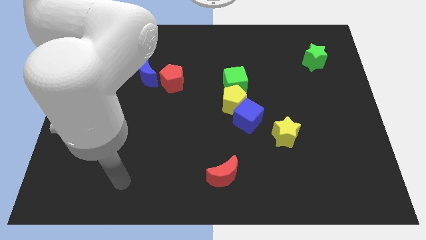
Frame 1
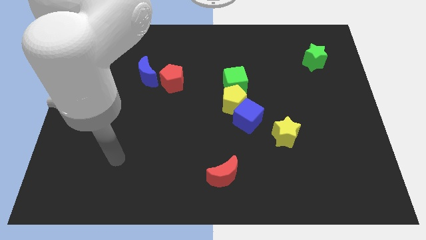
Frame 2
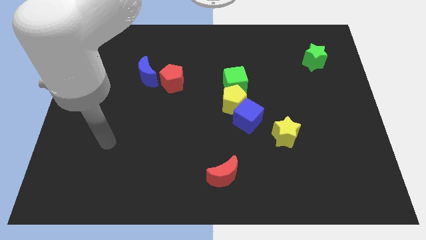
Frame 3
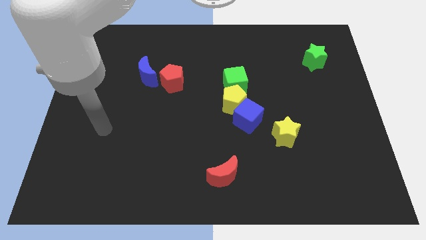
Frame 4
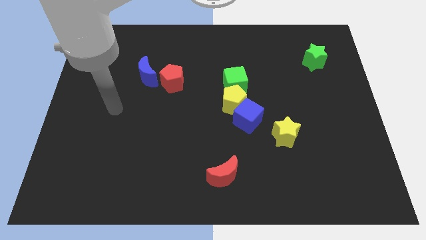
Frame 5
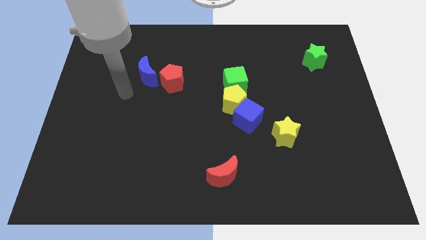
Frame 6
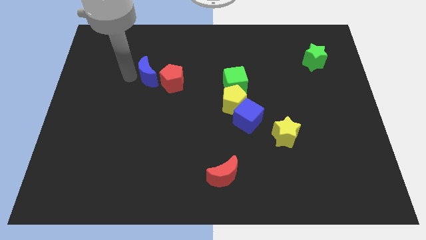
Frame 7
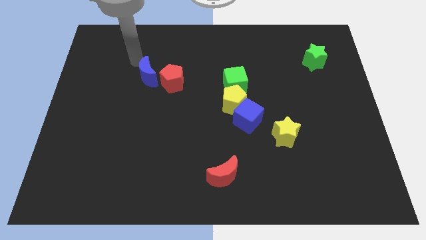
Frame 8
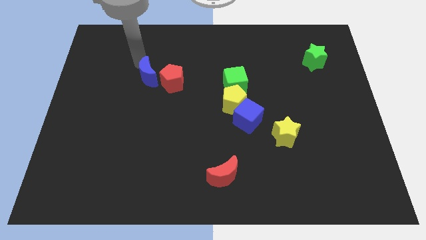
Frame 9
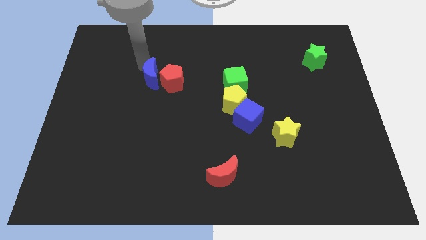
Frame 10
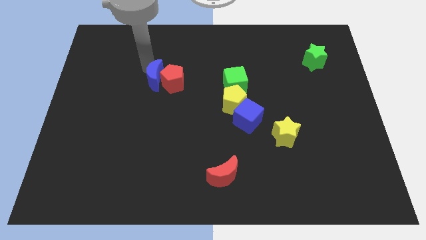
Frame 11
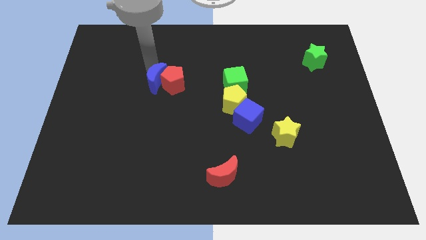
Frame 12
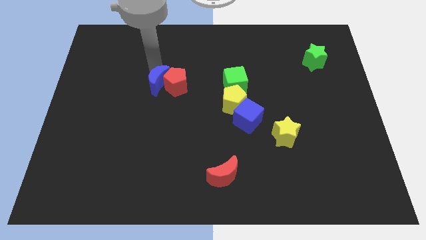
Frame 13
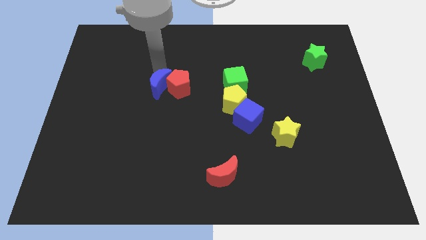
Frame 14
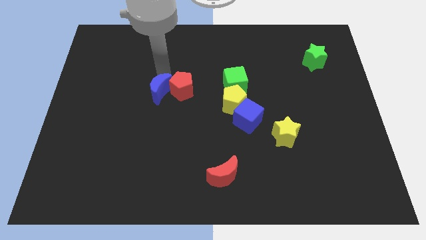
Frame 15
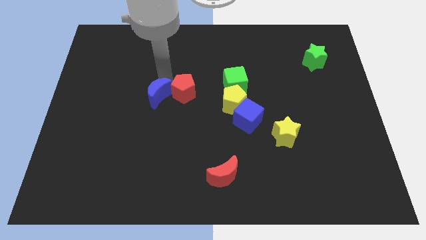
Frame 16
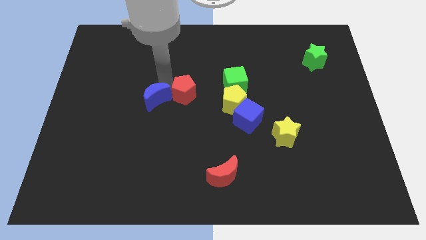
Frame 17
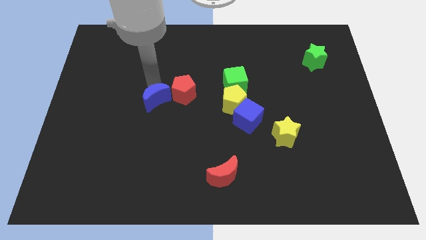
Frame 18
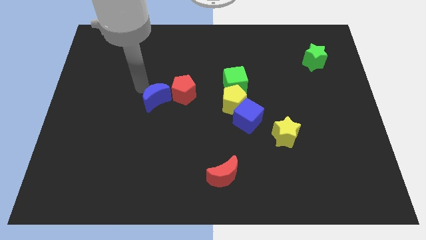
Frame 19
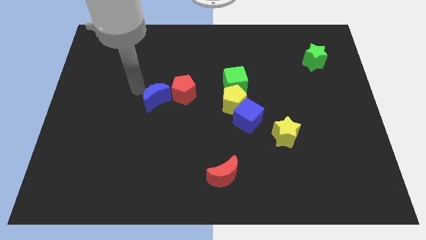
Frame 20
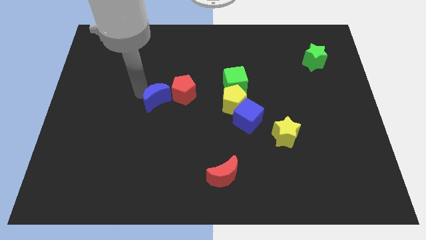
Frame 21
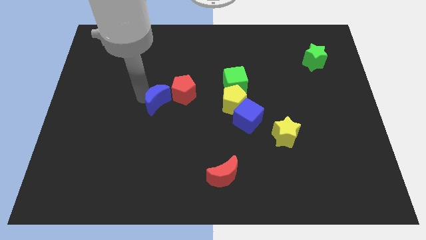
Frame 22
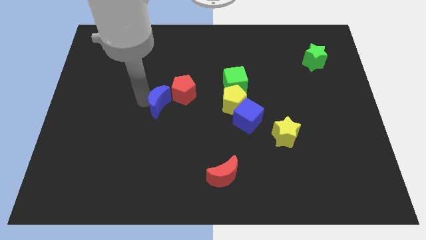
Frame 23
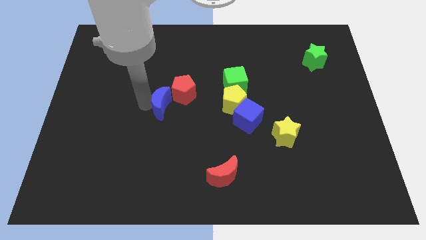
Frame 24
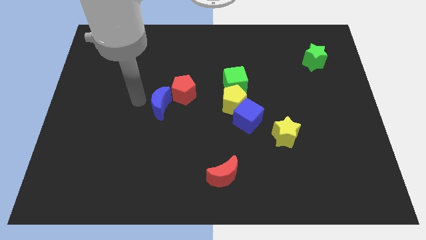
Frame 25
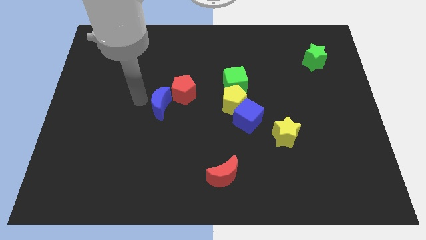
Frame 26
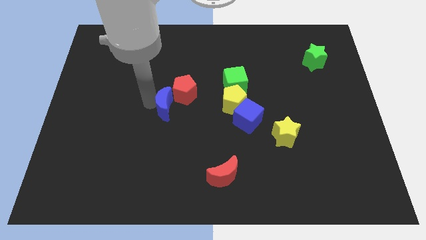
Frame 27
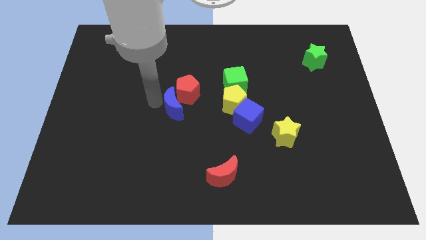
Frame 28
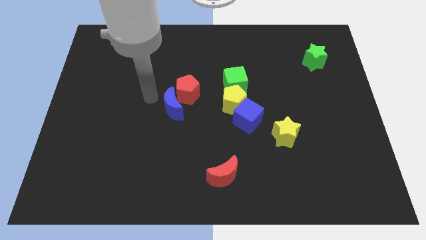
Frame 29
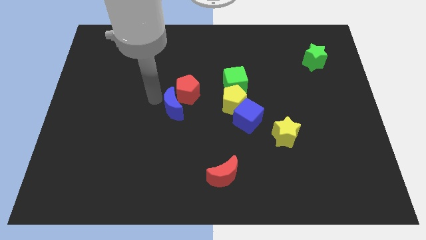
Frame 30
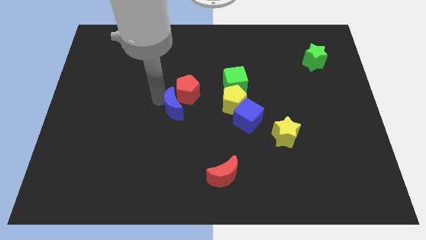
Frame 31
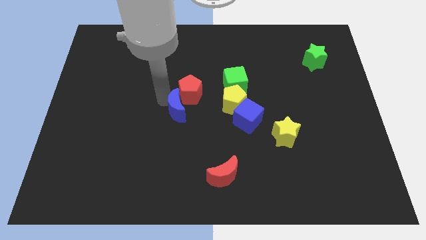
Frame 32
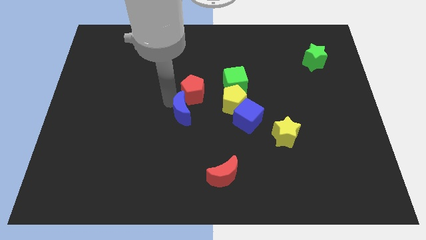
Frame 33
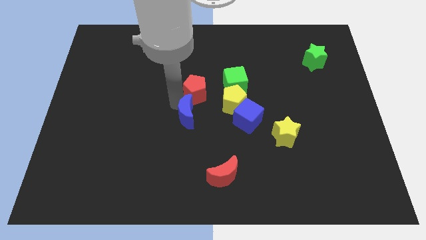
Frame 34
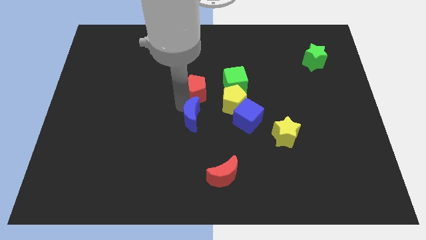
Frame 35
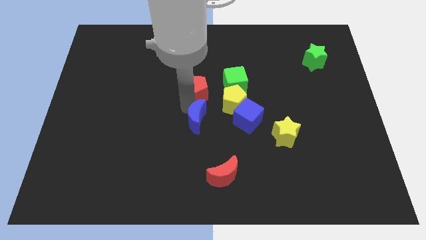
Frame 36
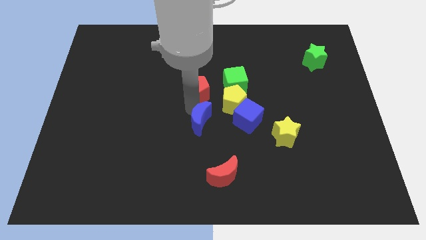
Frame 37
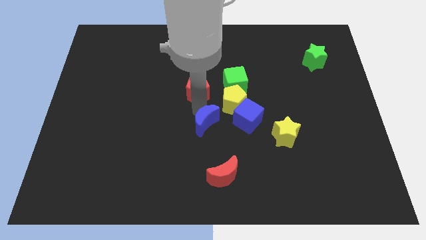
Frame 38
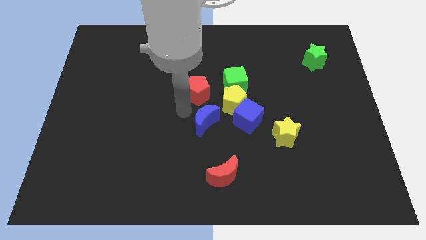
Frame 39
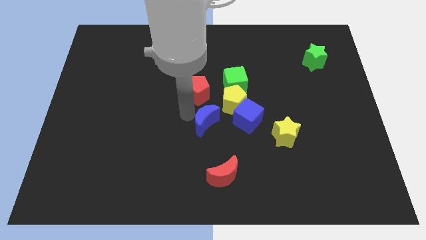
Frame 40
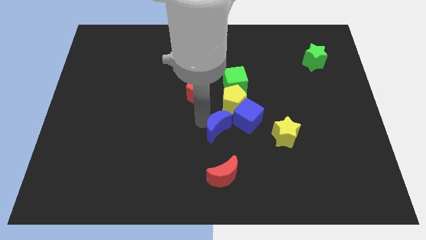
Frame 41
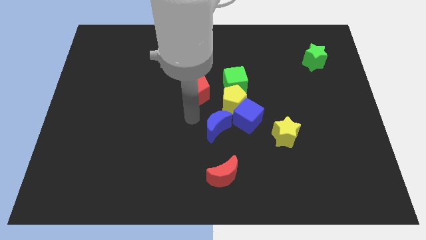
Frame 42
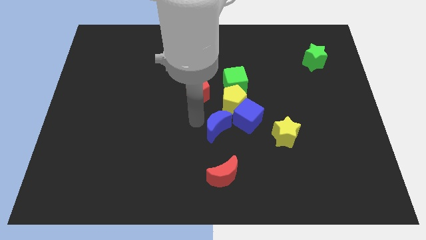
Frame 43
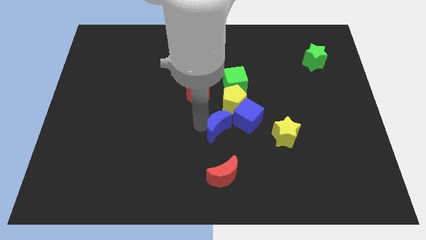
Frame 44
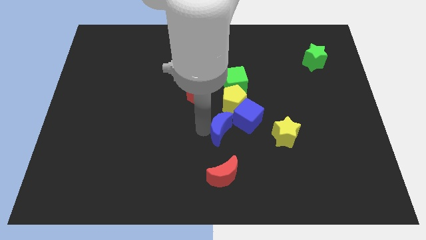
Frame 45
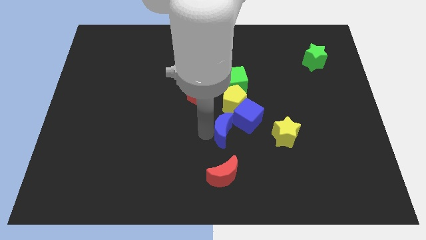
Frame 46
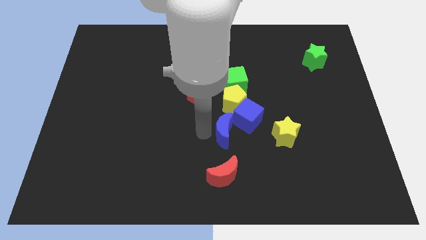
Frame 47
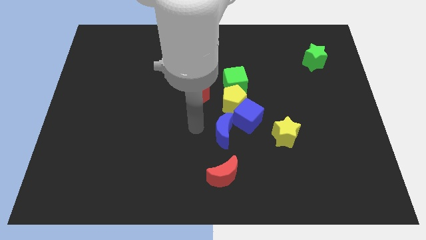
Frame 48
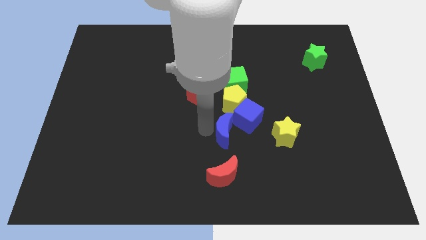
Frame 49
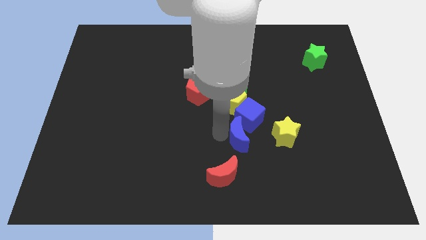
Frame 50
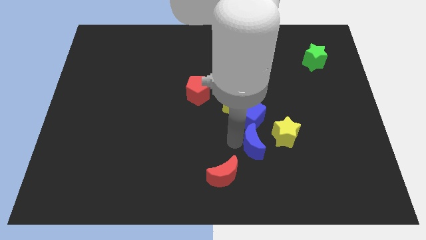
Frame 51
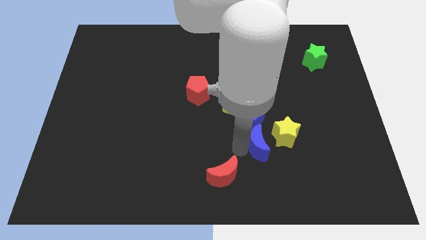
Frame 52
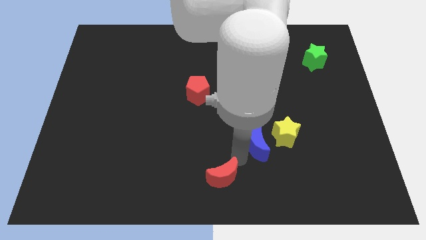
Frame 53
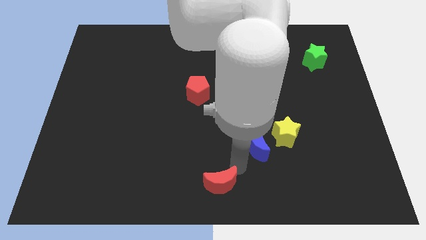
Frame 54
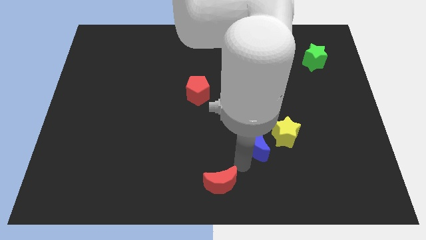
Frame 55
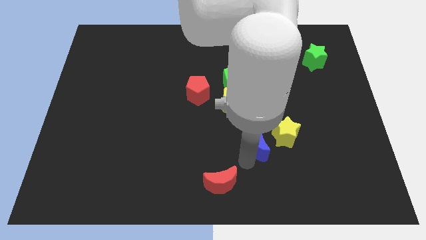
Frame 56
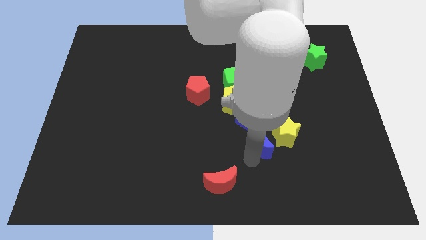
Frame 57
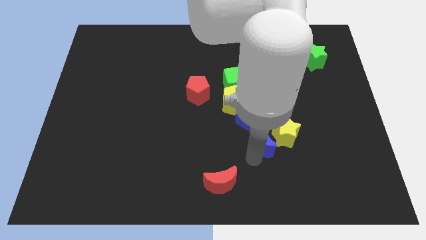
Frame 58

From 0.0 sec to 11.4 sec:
slide the blue moon towards the yellow star

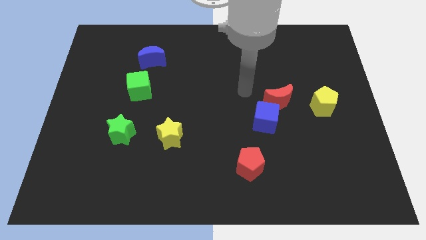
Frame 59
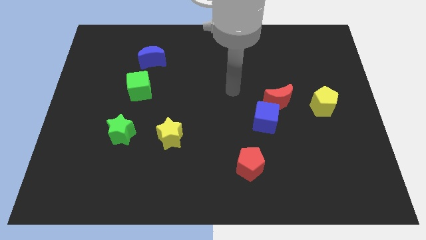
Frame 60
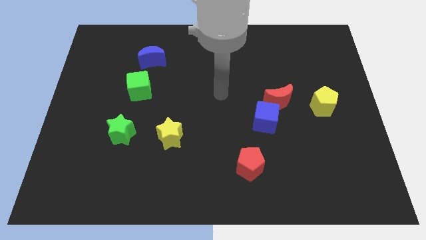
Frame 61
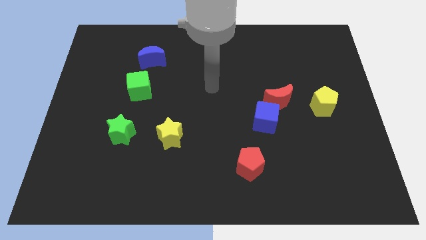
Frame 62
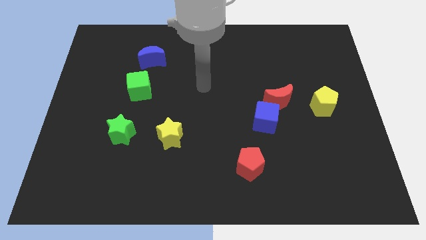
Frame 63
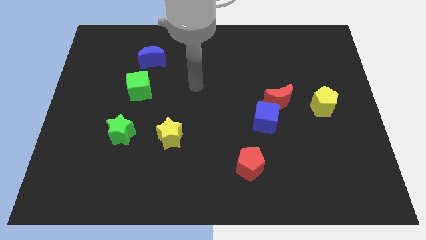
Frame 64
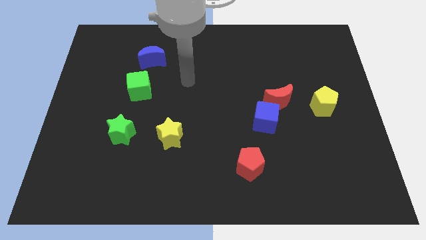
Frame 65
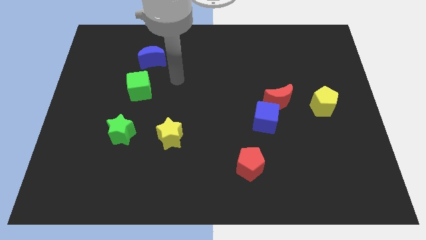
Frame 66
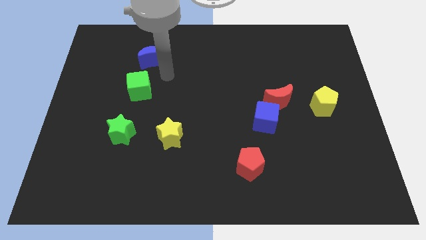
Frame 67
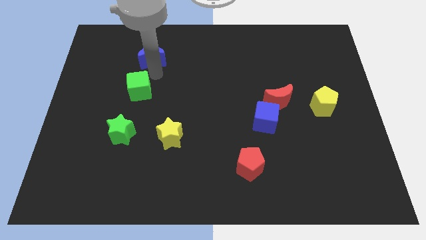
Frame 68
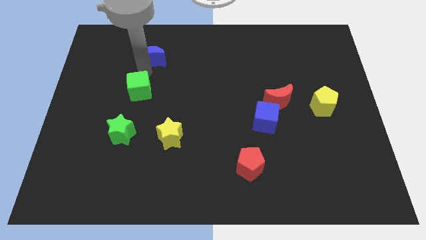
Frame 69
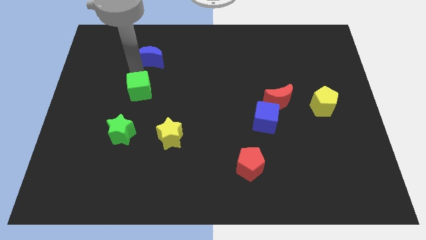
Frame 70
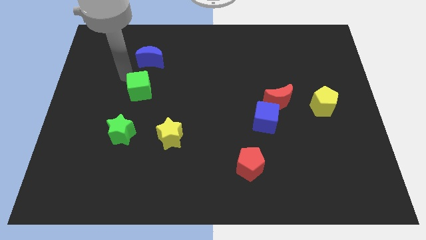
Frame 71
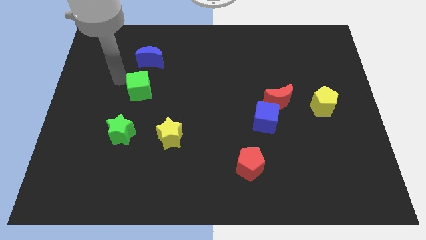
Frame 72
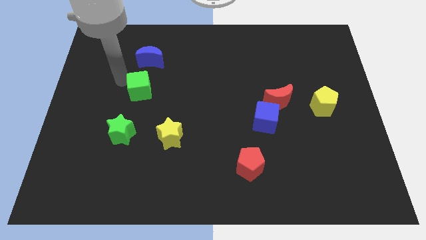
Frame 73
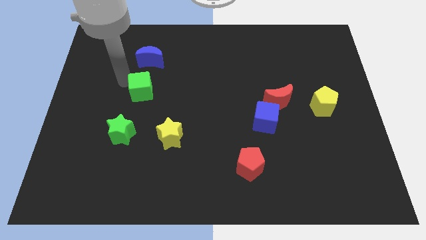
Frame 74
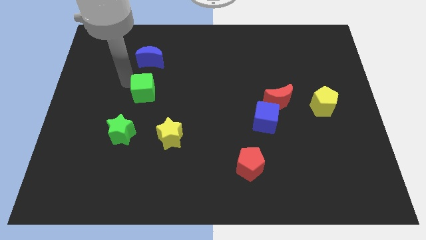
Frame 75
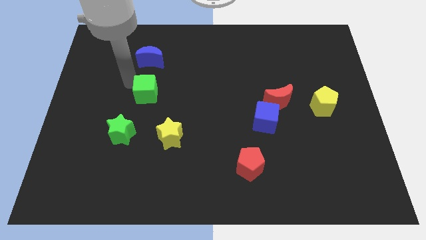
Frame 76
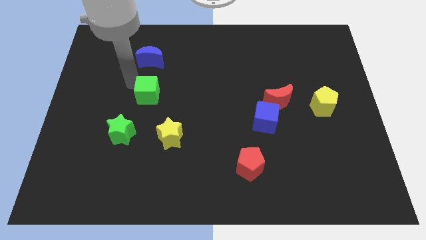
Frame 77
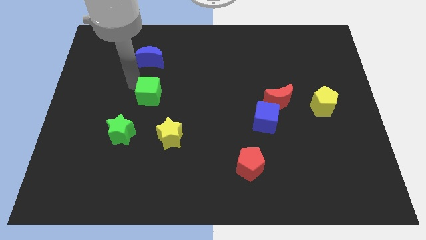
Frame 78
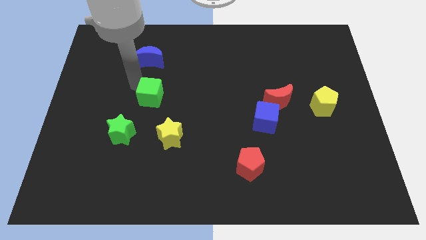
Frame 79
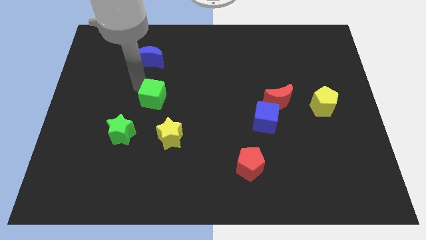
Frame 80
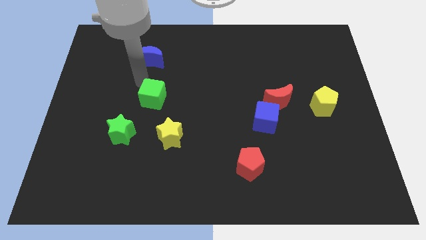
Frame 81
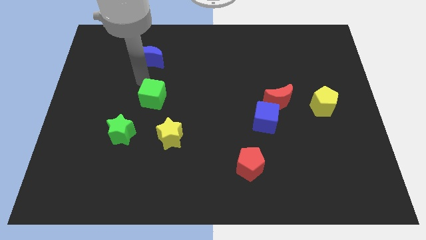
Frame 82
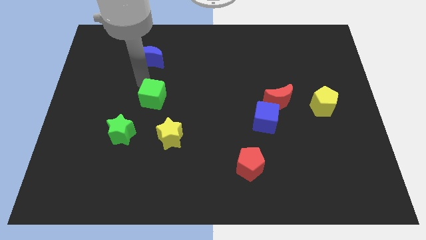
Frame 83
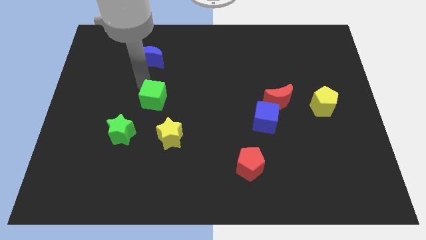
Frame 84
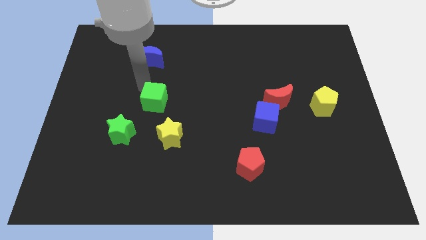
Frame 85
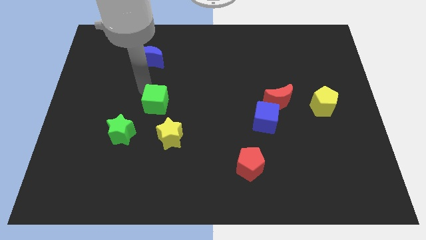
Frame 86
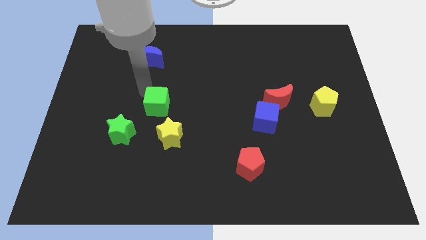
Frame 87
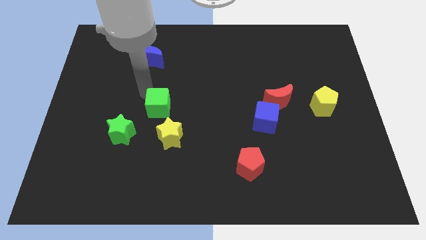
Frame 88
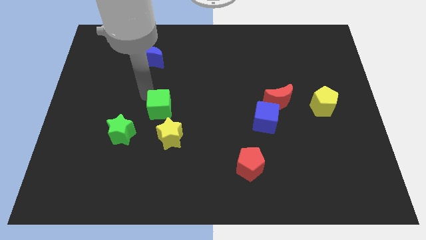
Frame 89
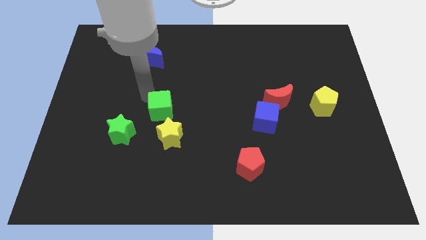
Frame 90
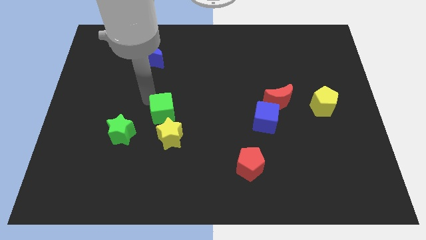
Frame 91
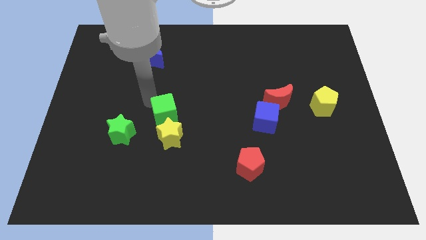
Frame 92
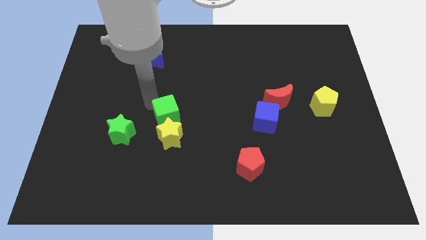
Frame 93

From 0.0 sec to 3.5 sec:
move the green cube to the yellow star
